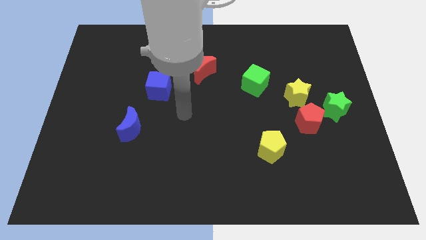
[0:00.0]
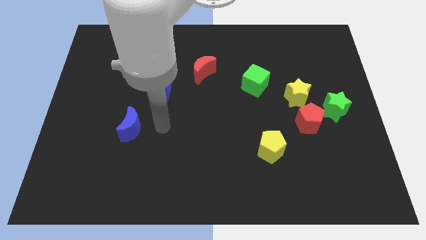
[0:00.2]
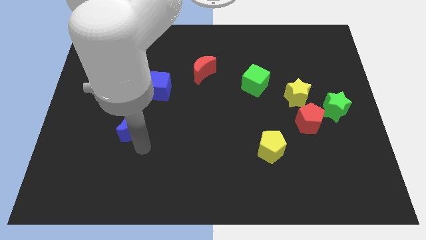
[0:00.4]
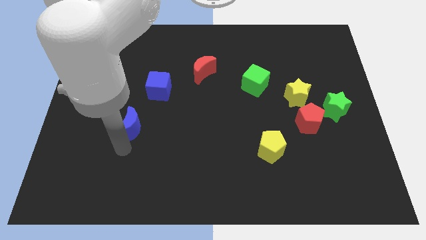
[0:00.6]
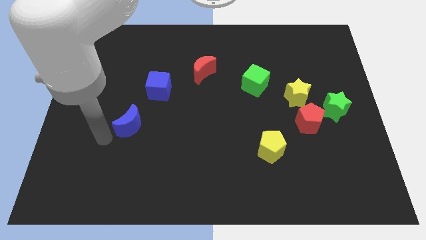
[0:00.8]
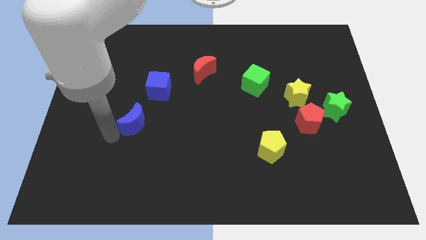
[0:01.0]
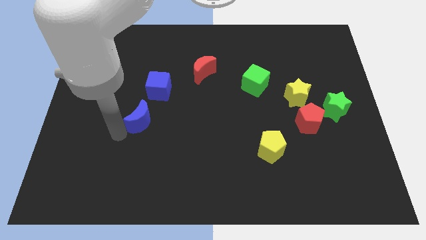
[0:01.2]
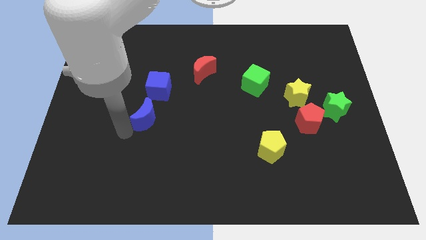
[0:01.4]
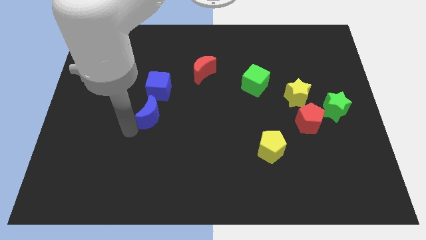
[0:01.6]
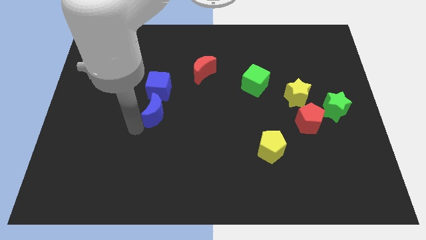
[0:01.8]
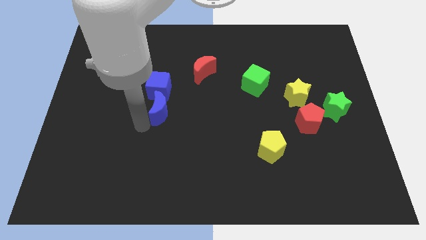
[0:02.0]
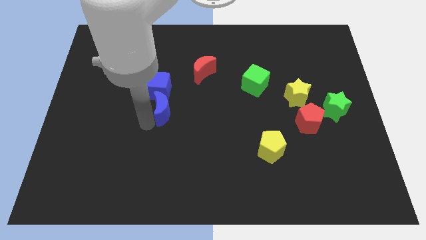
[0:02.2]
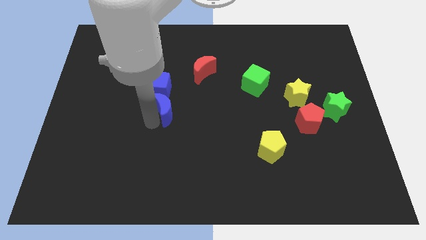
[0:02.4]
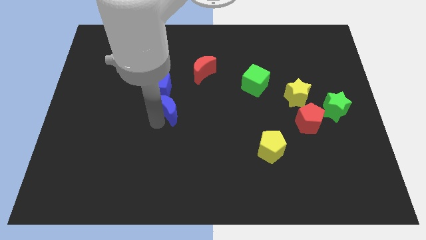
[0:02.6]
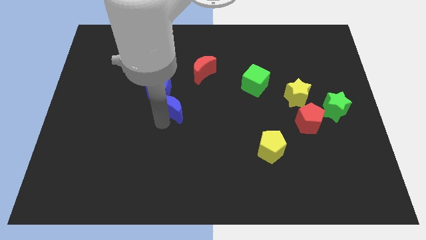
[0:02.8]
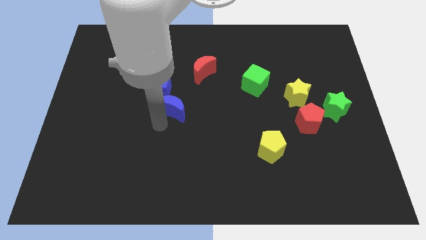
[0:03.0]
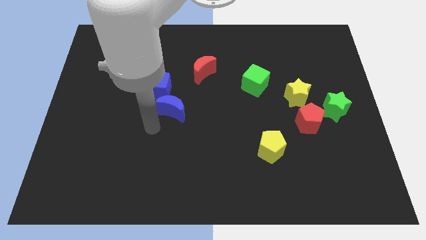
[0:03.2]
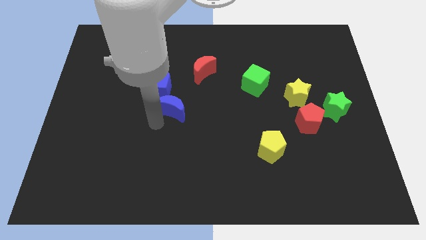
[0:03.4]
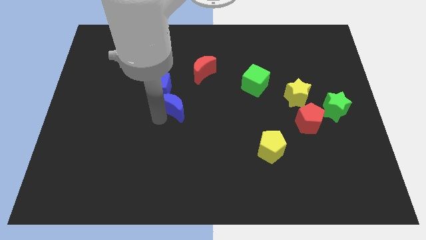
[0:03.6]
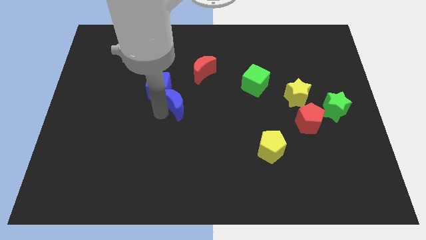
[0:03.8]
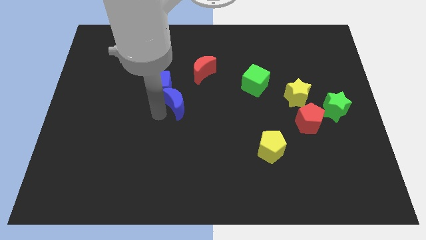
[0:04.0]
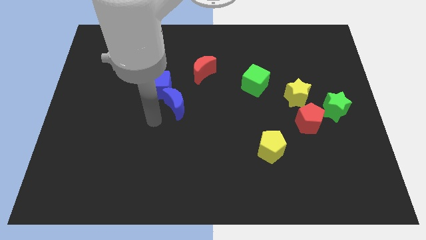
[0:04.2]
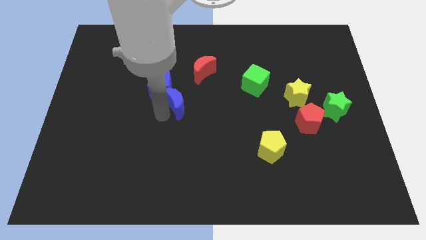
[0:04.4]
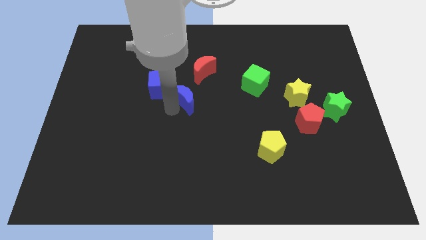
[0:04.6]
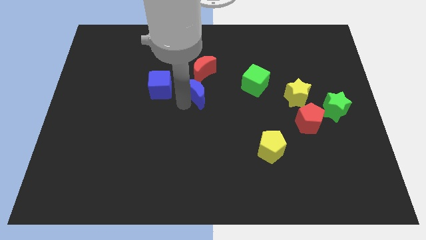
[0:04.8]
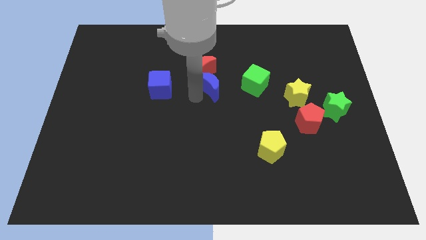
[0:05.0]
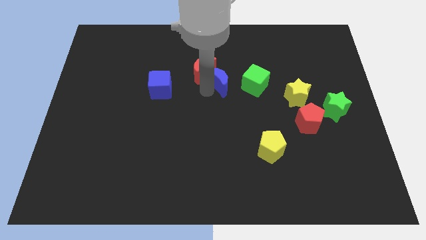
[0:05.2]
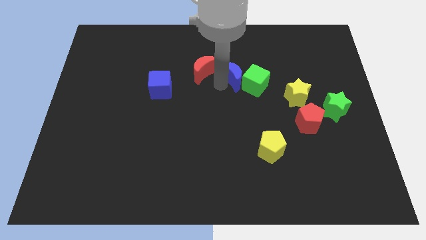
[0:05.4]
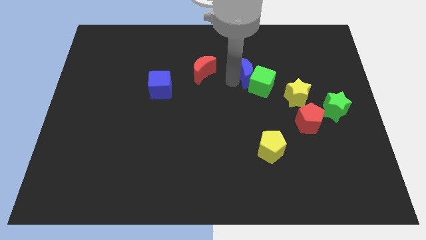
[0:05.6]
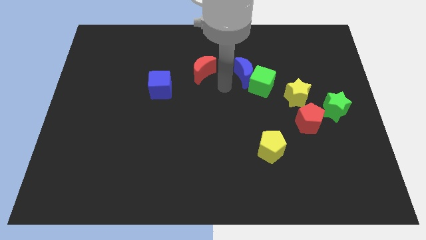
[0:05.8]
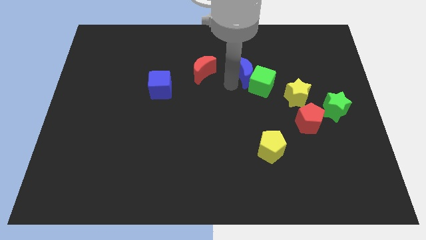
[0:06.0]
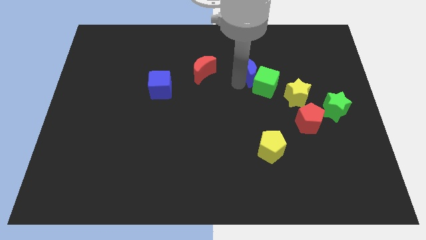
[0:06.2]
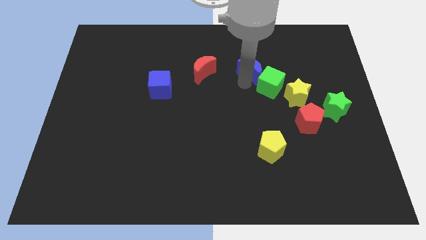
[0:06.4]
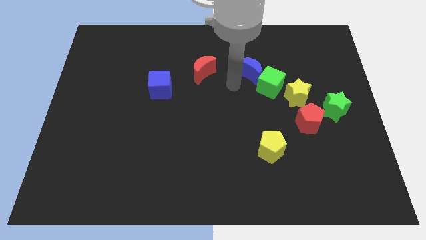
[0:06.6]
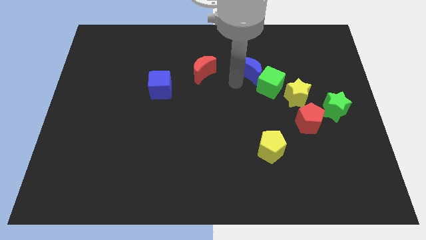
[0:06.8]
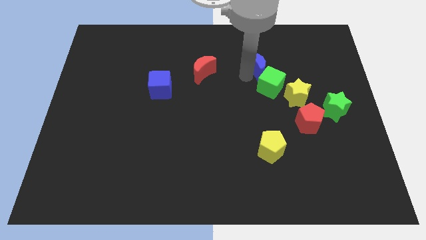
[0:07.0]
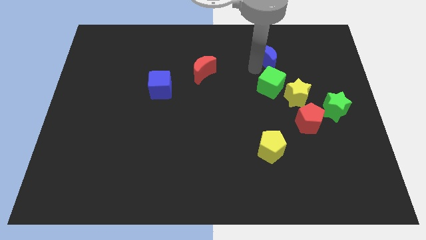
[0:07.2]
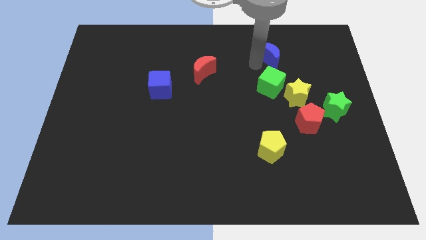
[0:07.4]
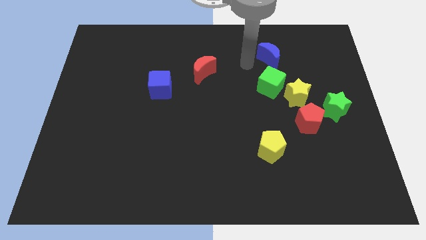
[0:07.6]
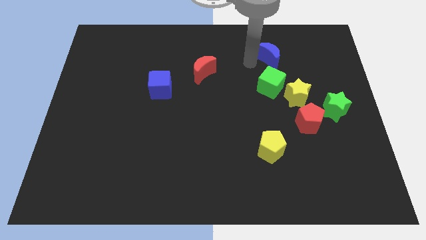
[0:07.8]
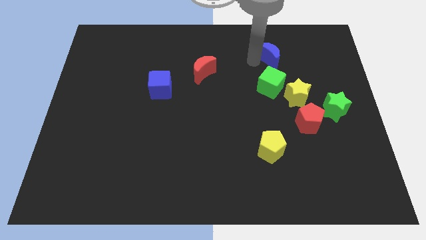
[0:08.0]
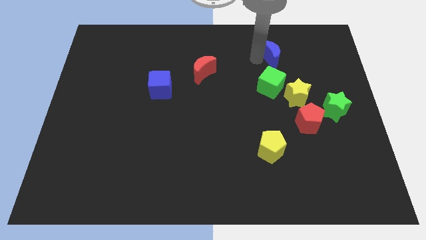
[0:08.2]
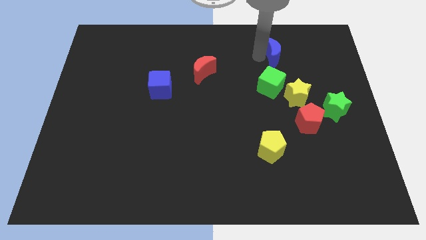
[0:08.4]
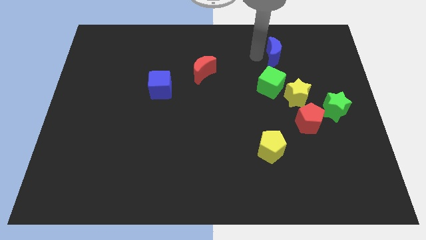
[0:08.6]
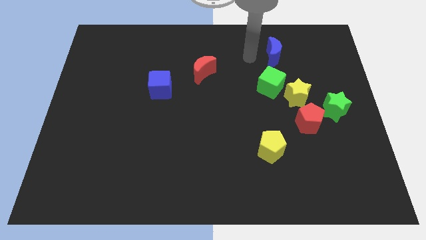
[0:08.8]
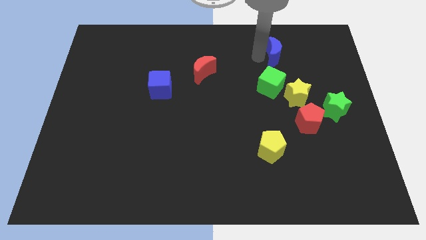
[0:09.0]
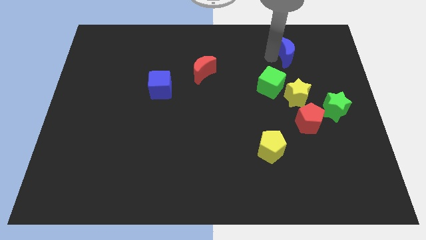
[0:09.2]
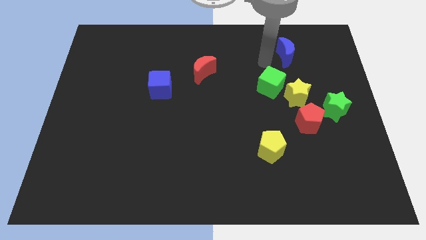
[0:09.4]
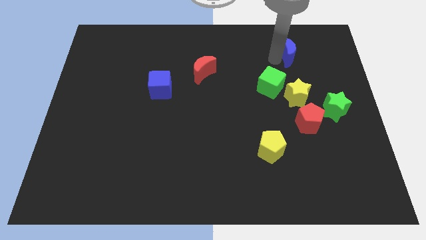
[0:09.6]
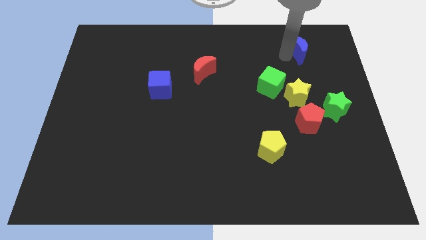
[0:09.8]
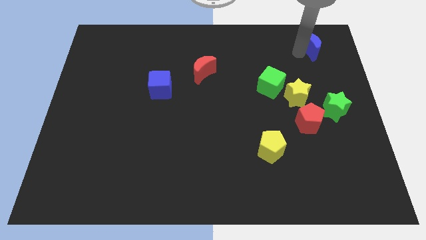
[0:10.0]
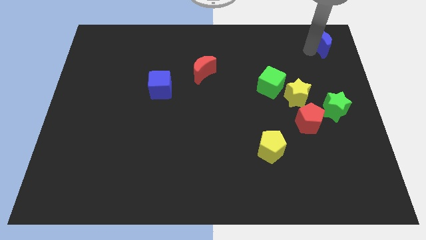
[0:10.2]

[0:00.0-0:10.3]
slide the blue moon to the top right of the board
